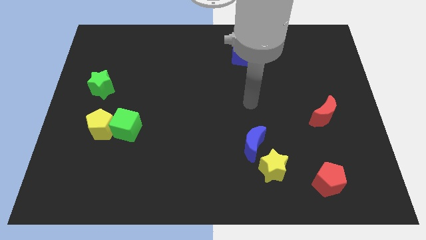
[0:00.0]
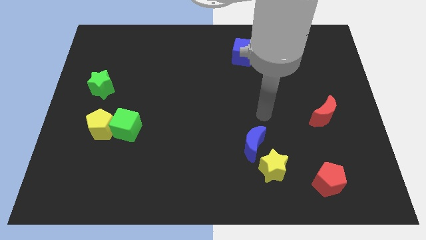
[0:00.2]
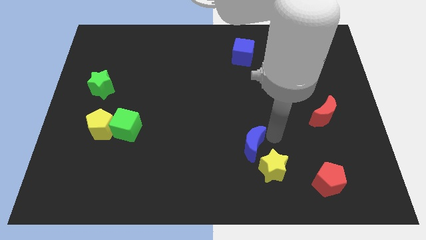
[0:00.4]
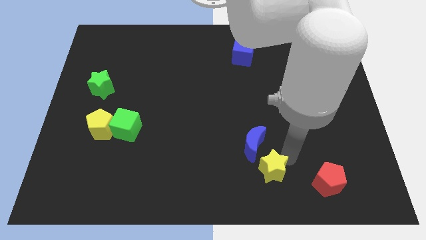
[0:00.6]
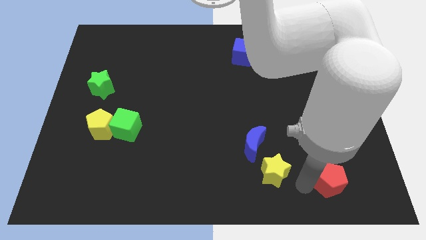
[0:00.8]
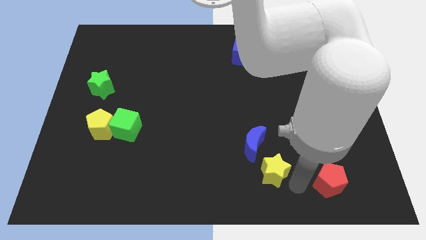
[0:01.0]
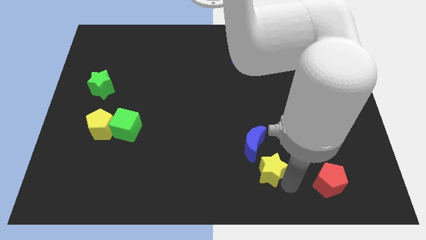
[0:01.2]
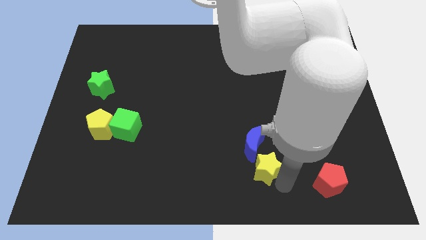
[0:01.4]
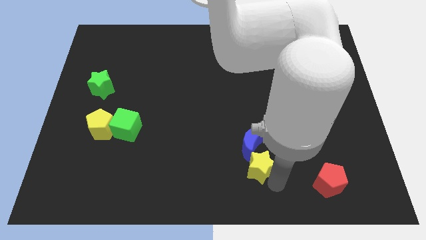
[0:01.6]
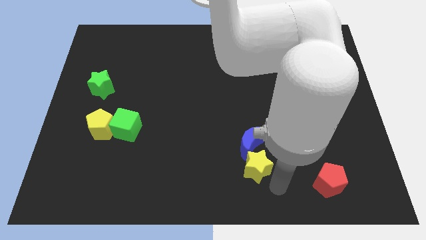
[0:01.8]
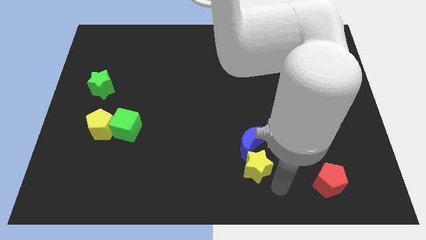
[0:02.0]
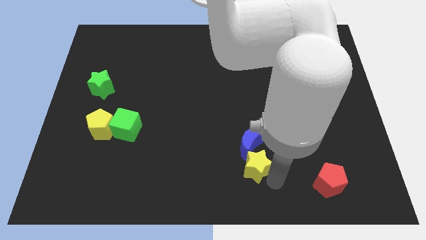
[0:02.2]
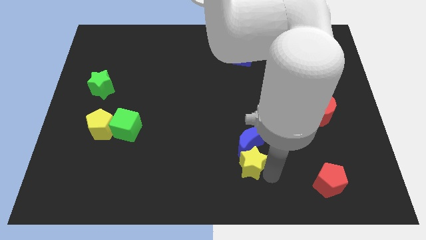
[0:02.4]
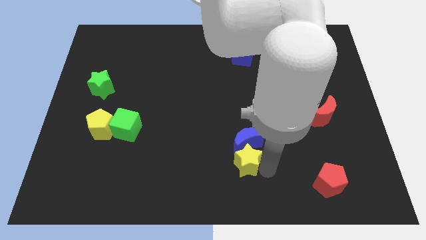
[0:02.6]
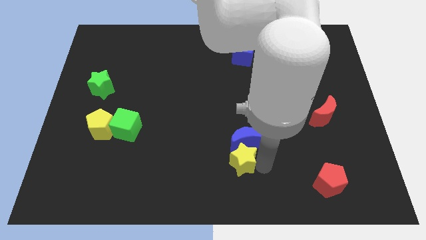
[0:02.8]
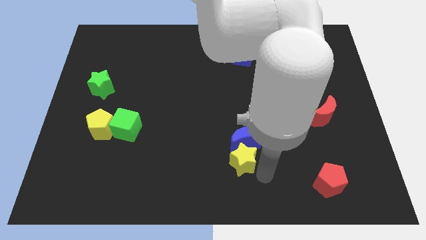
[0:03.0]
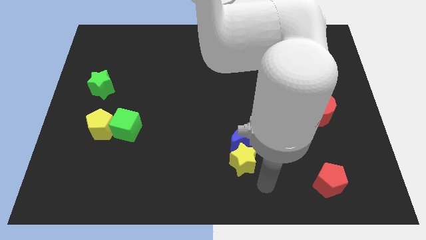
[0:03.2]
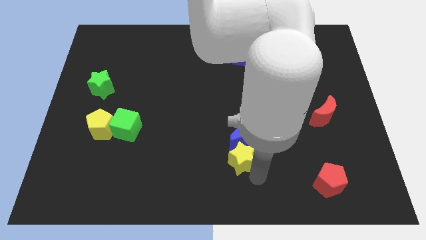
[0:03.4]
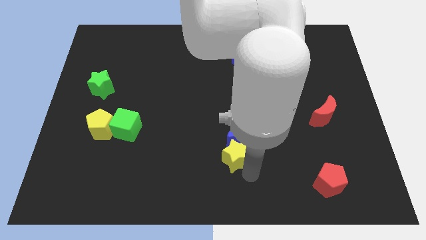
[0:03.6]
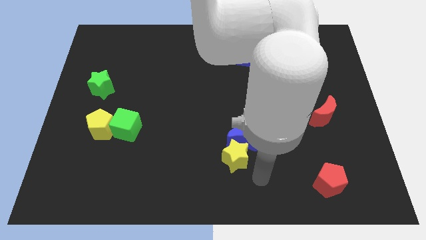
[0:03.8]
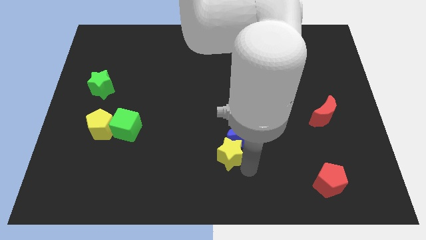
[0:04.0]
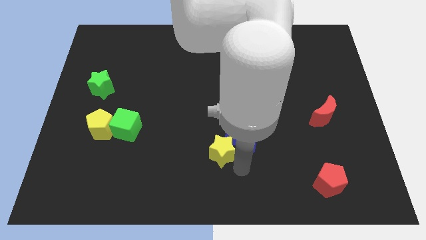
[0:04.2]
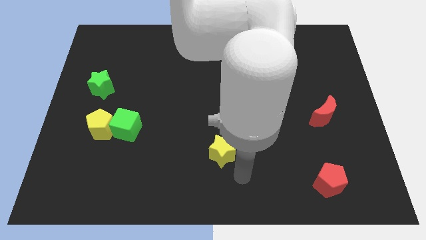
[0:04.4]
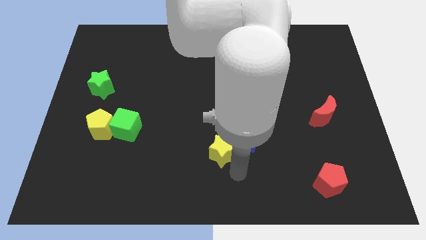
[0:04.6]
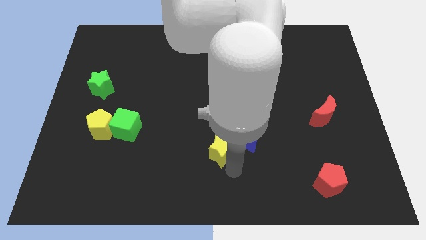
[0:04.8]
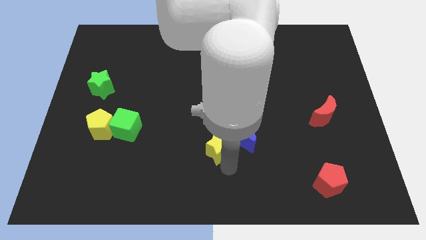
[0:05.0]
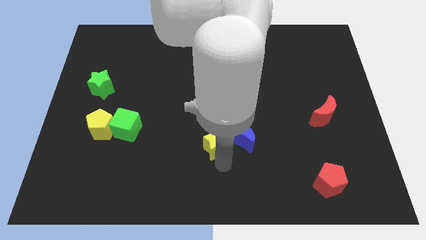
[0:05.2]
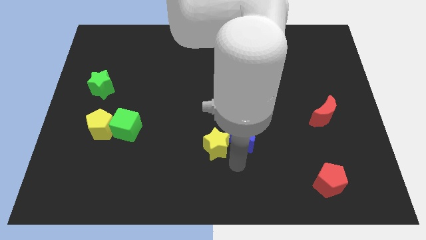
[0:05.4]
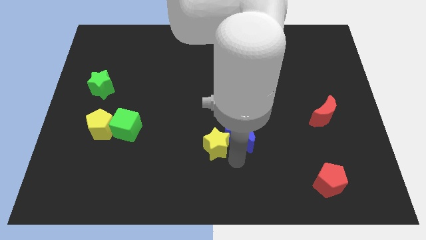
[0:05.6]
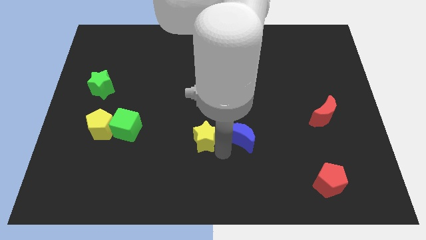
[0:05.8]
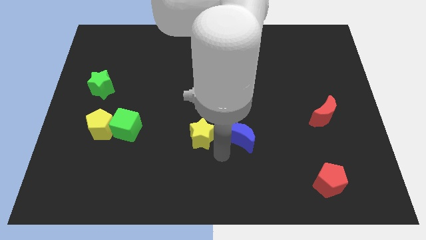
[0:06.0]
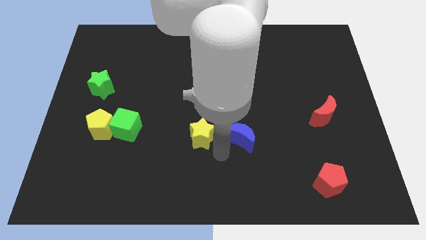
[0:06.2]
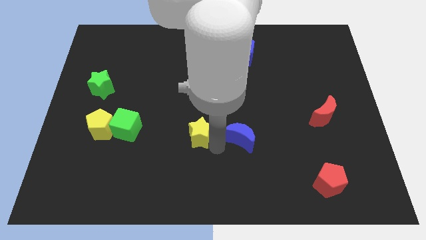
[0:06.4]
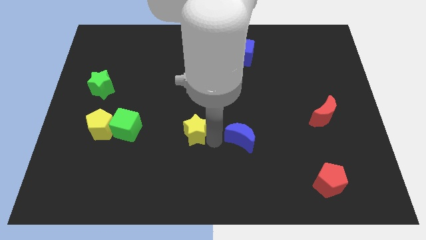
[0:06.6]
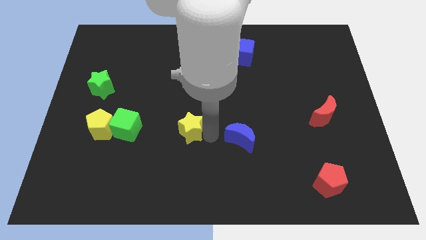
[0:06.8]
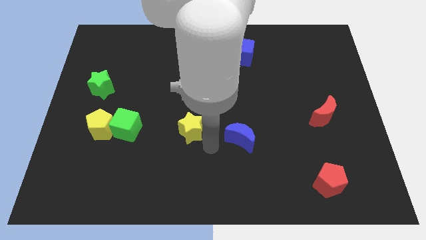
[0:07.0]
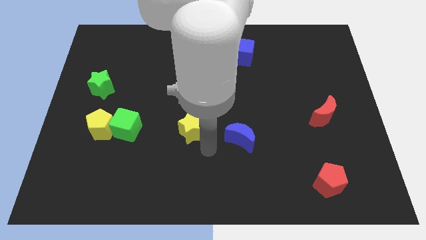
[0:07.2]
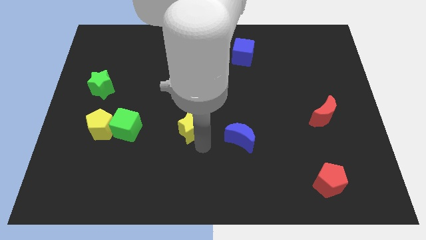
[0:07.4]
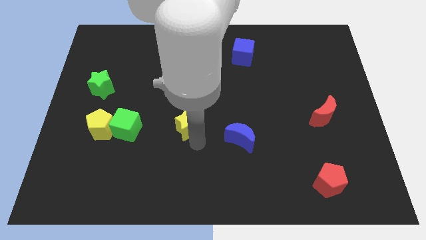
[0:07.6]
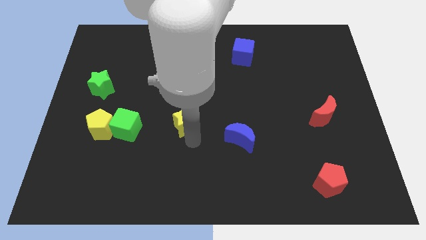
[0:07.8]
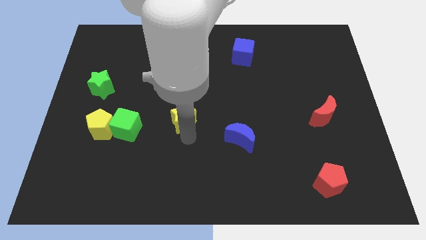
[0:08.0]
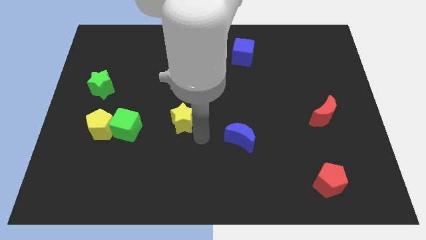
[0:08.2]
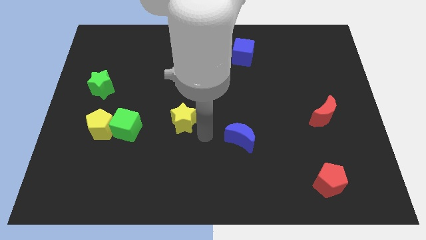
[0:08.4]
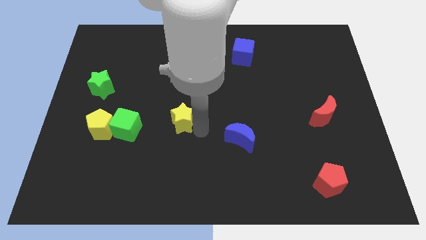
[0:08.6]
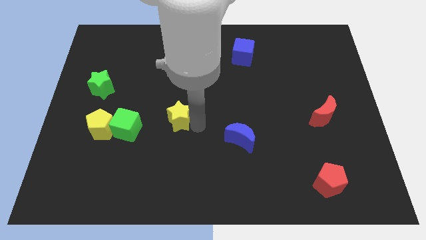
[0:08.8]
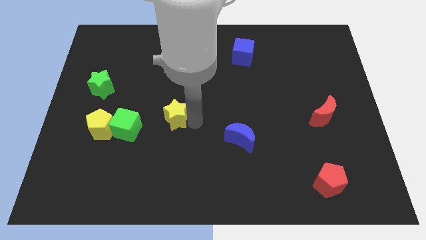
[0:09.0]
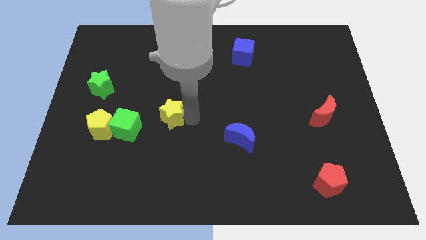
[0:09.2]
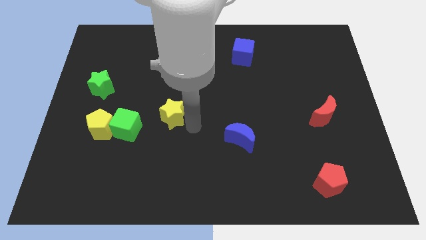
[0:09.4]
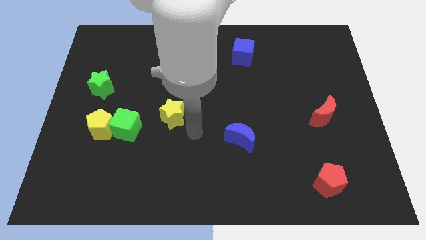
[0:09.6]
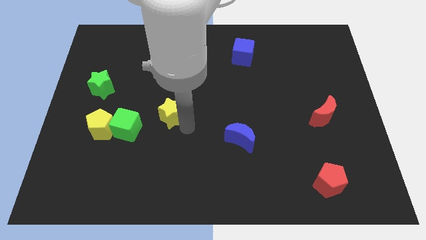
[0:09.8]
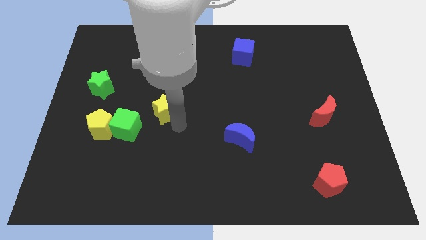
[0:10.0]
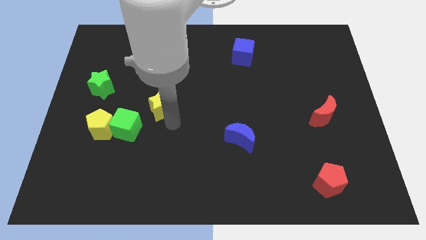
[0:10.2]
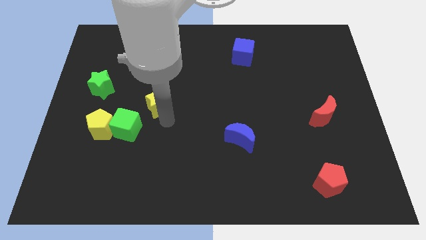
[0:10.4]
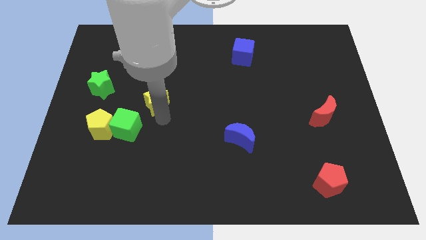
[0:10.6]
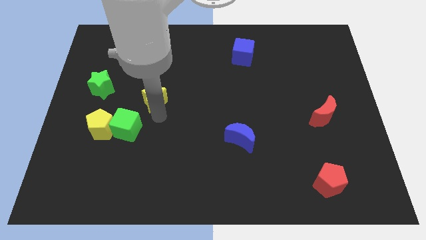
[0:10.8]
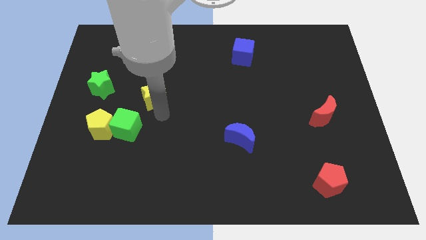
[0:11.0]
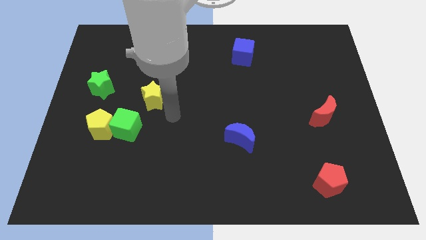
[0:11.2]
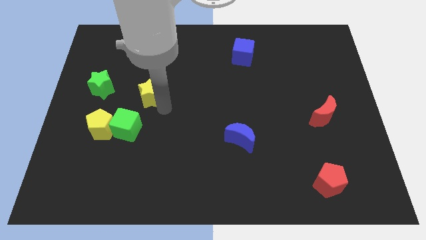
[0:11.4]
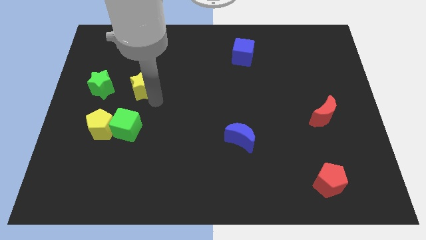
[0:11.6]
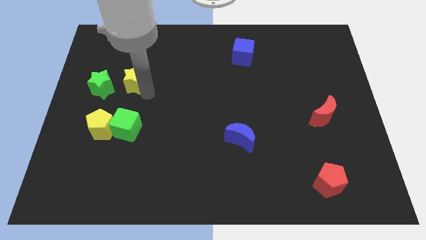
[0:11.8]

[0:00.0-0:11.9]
slide the yellow star diagonally up and to the right of the green star

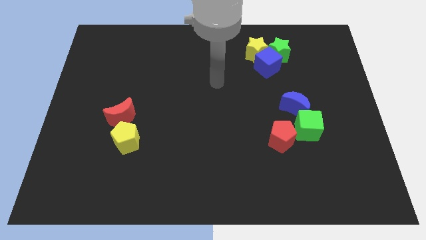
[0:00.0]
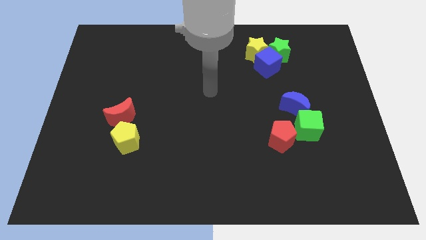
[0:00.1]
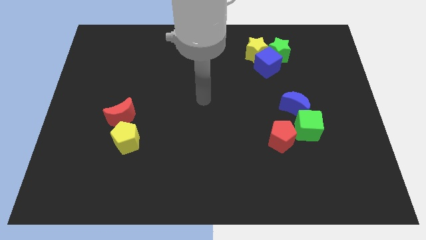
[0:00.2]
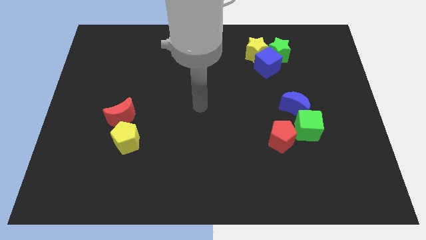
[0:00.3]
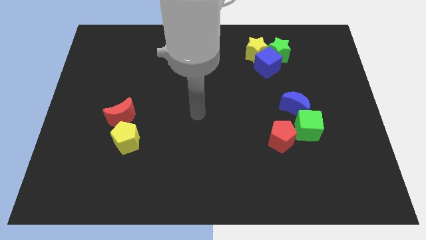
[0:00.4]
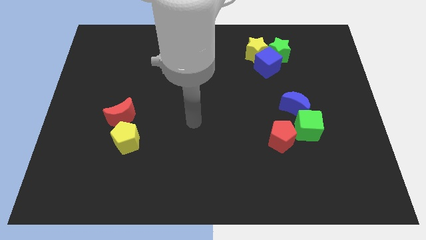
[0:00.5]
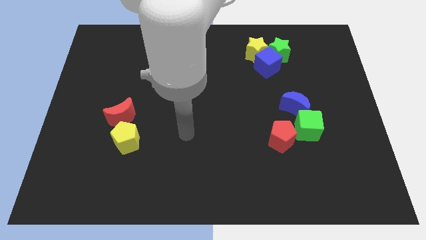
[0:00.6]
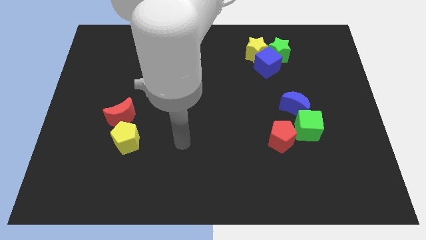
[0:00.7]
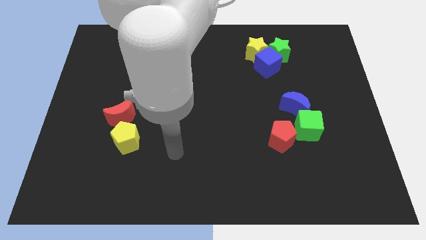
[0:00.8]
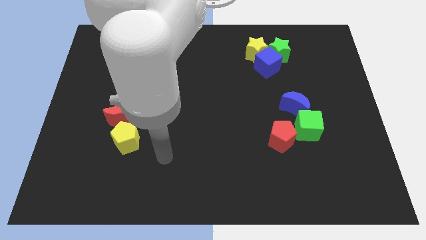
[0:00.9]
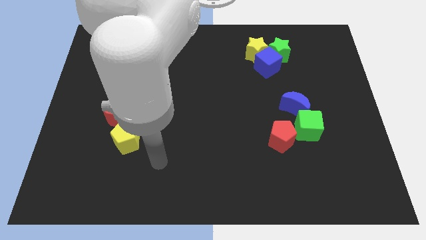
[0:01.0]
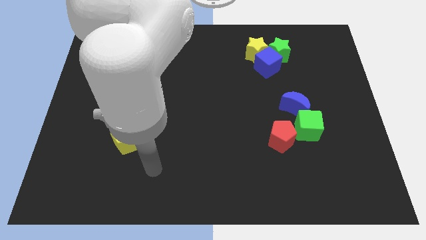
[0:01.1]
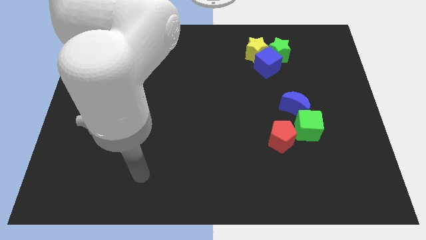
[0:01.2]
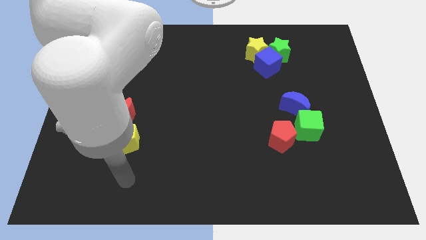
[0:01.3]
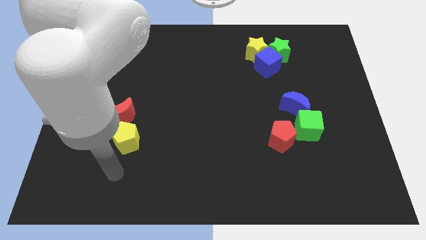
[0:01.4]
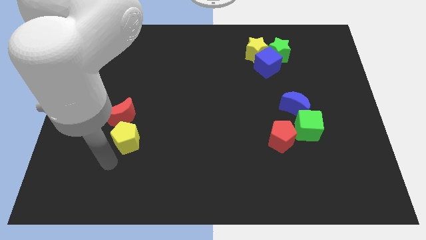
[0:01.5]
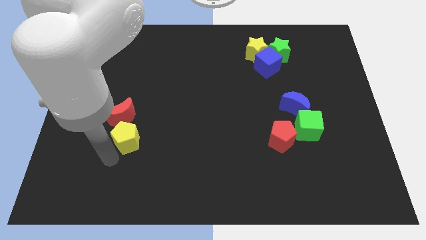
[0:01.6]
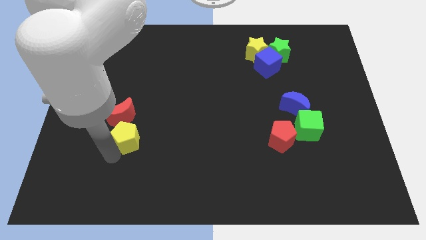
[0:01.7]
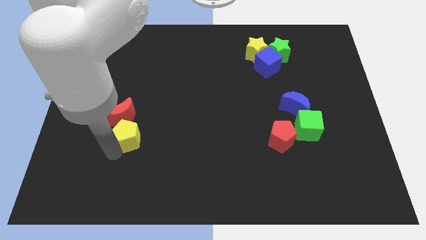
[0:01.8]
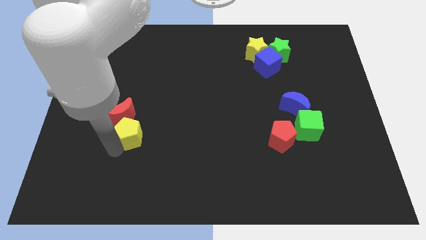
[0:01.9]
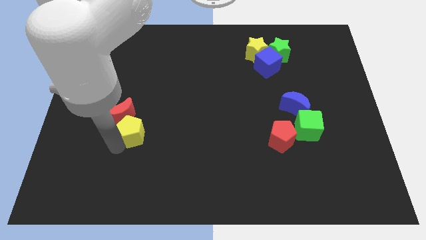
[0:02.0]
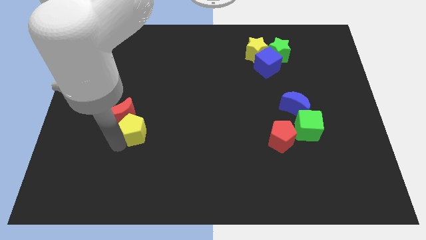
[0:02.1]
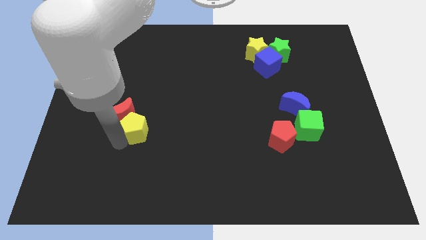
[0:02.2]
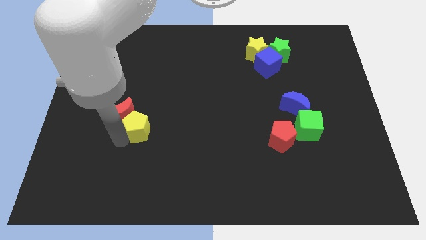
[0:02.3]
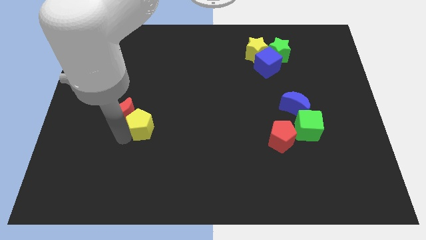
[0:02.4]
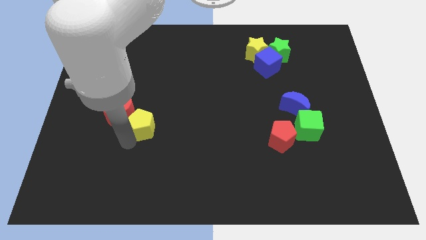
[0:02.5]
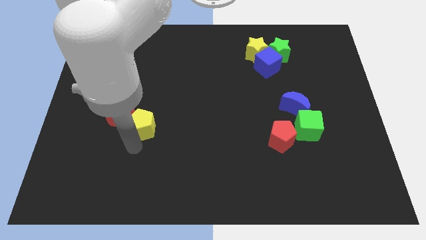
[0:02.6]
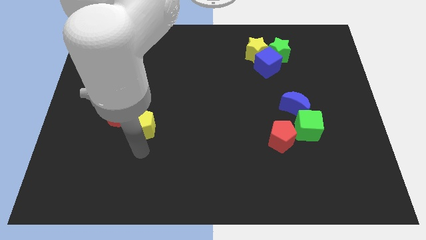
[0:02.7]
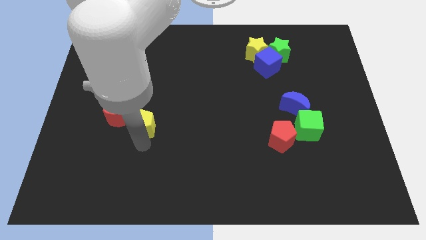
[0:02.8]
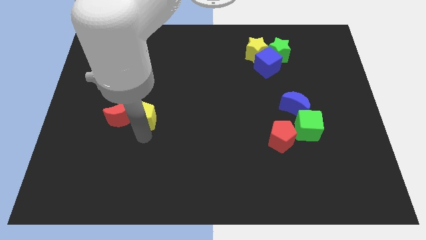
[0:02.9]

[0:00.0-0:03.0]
put the yellow pentagon to the top right side of the red moon
